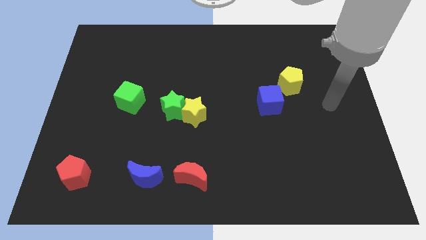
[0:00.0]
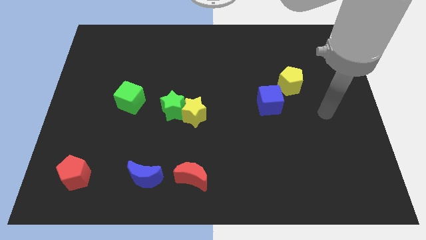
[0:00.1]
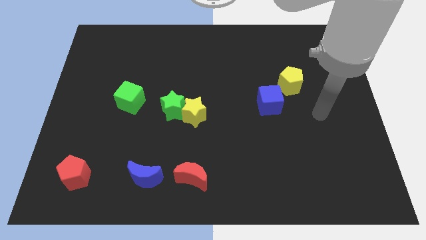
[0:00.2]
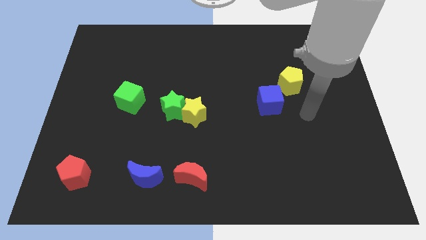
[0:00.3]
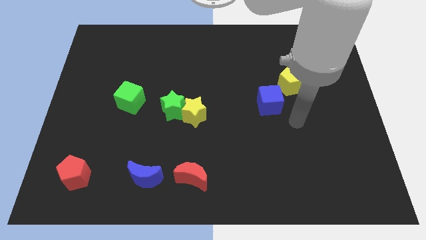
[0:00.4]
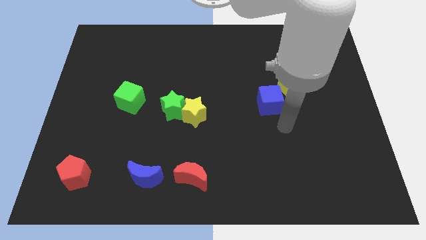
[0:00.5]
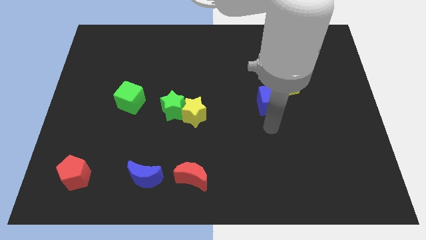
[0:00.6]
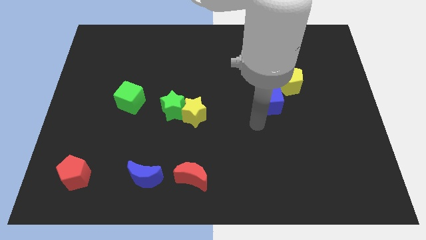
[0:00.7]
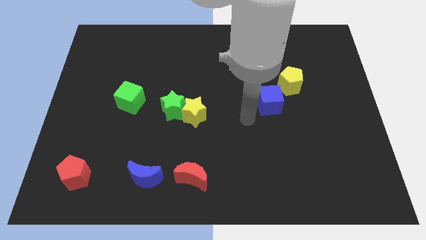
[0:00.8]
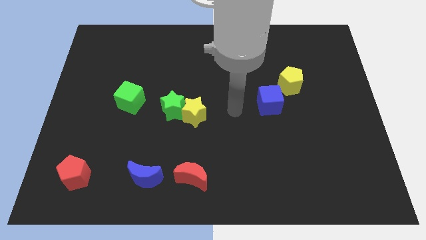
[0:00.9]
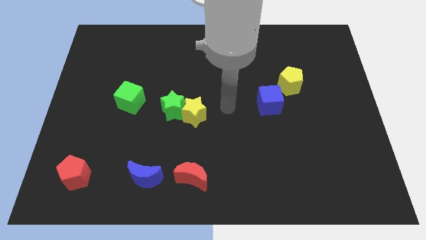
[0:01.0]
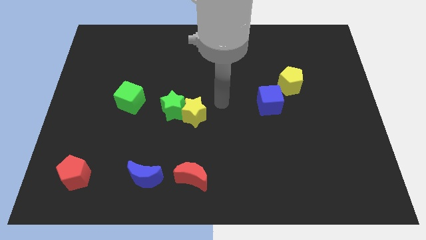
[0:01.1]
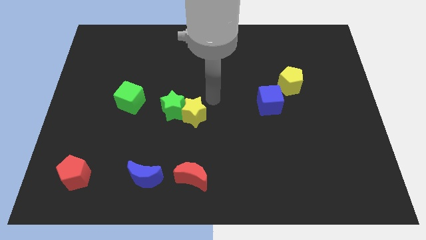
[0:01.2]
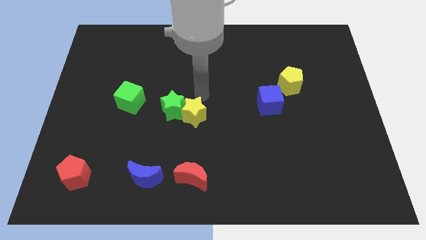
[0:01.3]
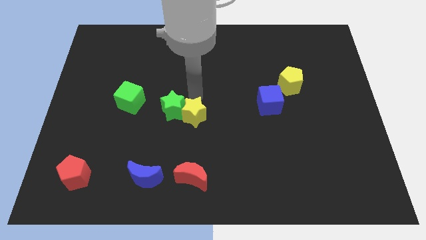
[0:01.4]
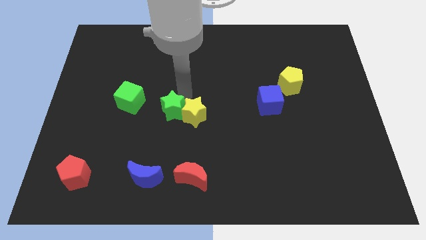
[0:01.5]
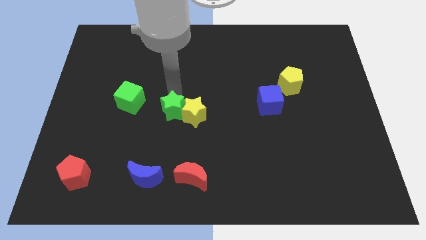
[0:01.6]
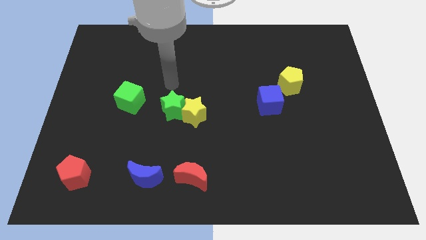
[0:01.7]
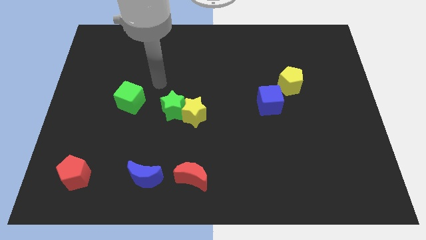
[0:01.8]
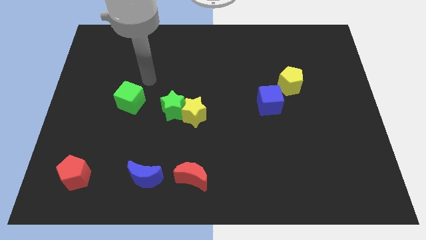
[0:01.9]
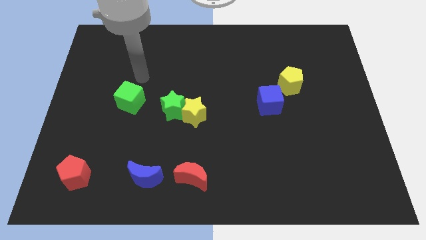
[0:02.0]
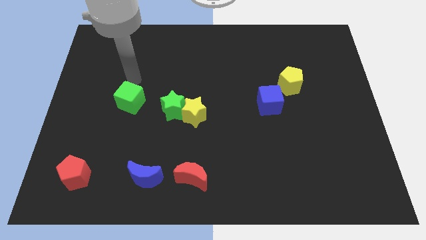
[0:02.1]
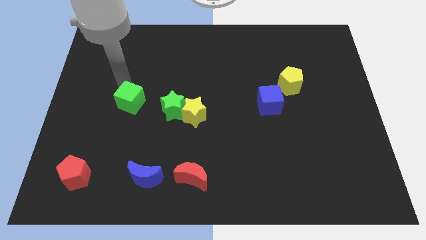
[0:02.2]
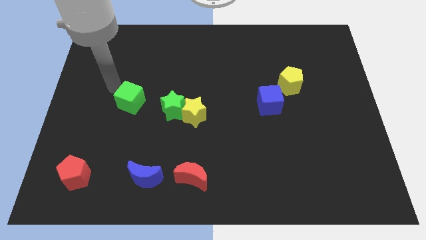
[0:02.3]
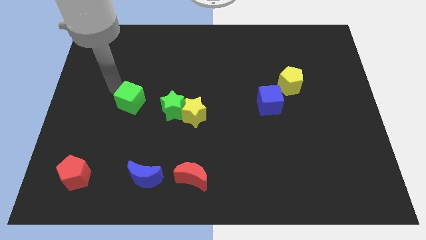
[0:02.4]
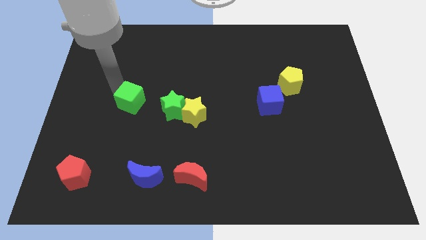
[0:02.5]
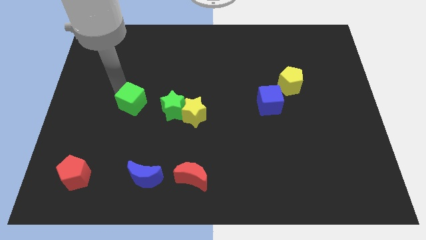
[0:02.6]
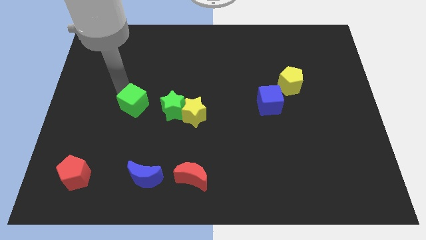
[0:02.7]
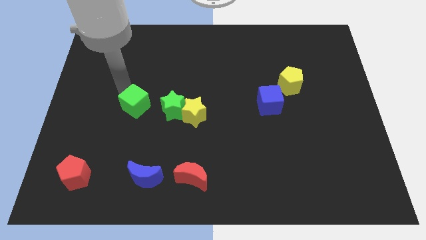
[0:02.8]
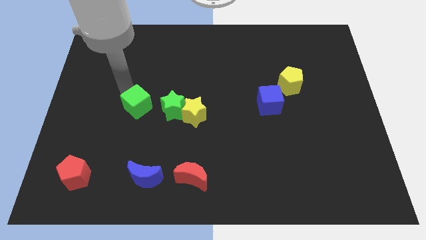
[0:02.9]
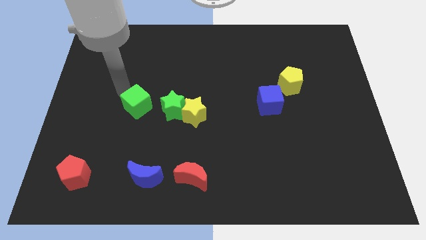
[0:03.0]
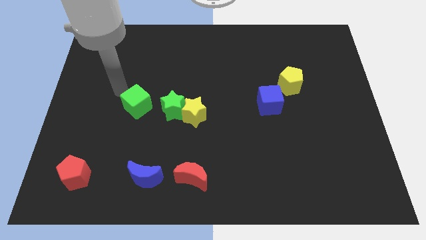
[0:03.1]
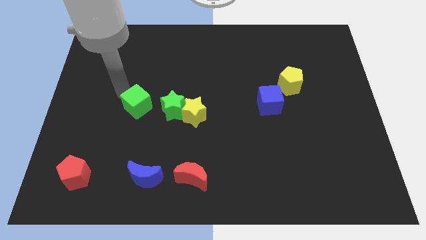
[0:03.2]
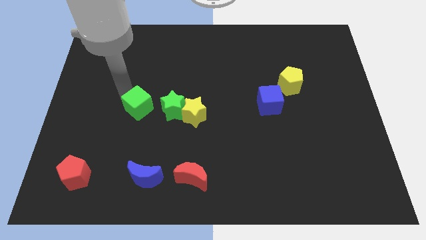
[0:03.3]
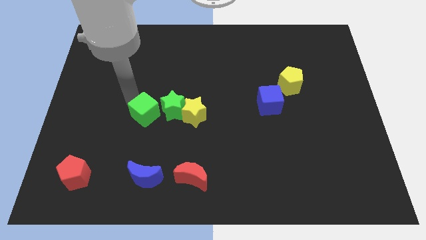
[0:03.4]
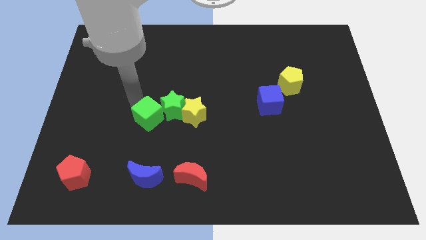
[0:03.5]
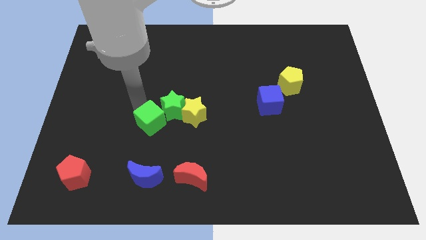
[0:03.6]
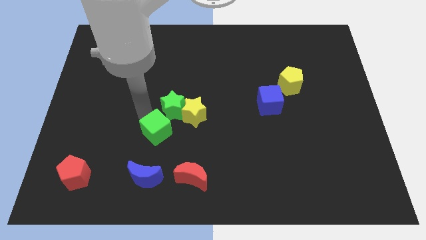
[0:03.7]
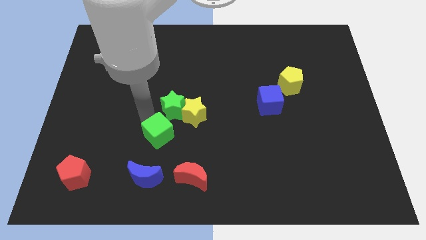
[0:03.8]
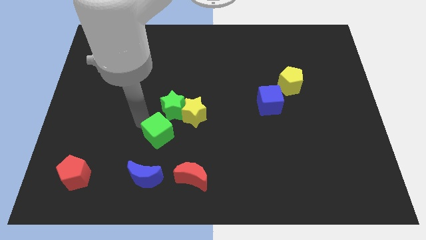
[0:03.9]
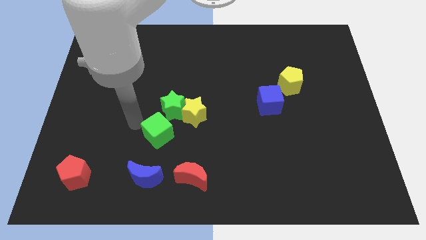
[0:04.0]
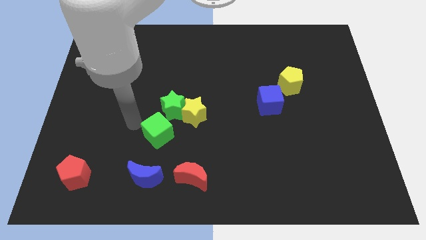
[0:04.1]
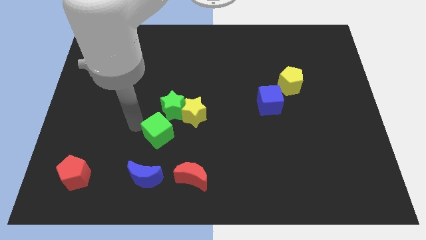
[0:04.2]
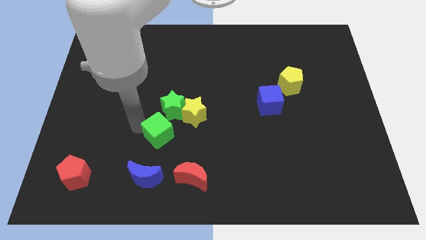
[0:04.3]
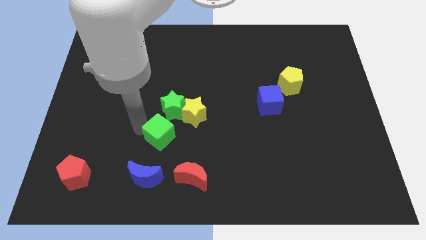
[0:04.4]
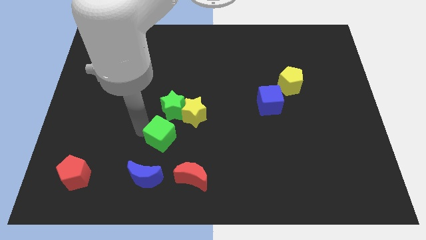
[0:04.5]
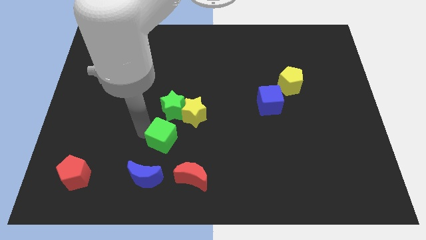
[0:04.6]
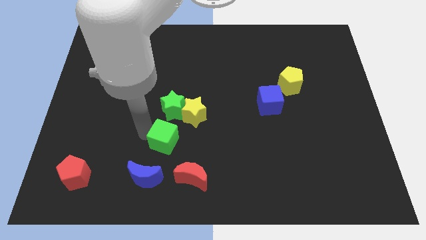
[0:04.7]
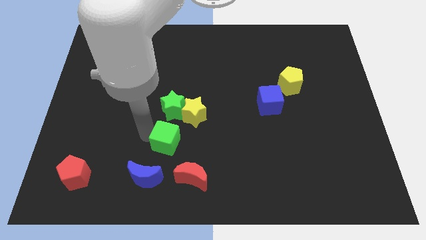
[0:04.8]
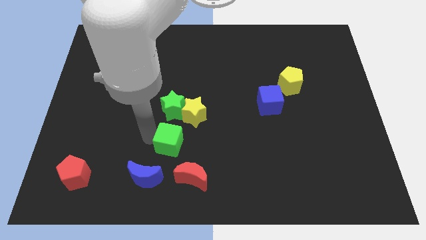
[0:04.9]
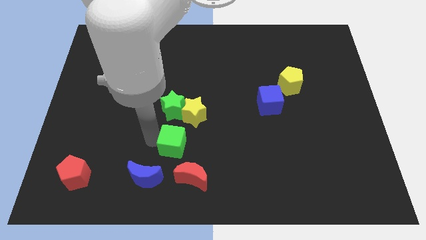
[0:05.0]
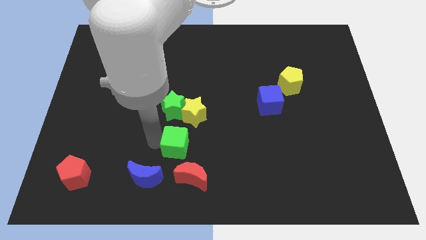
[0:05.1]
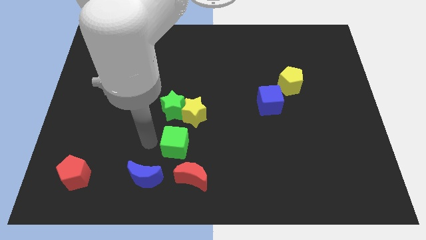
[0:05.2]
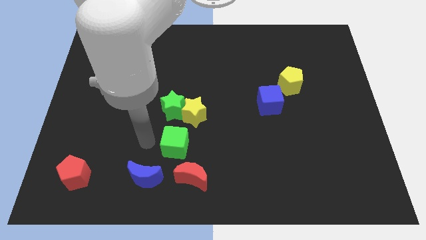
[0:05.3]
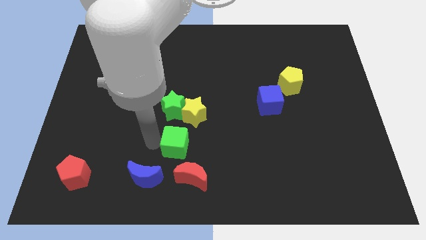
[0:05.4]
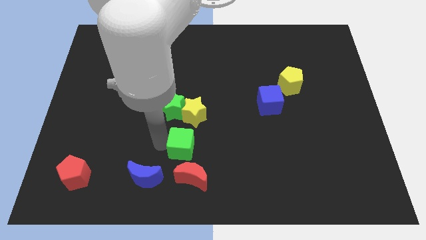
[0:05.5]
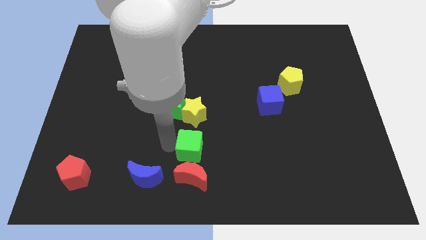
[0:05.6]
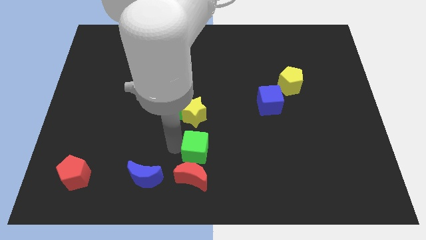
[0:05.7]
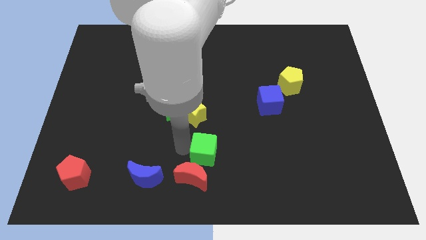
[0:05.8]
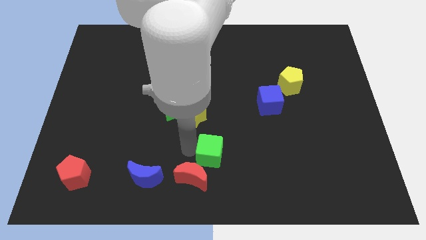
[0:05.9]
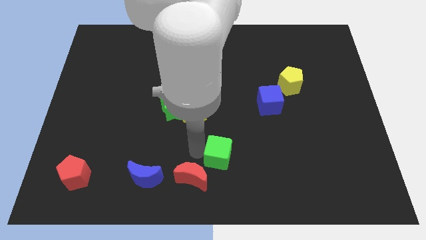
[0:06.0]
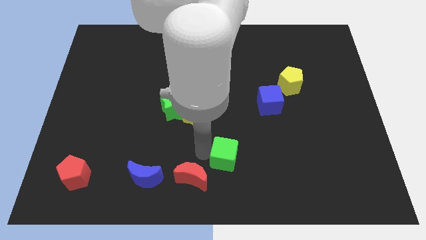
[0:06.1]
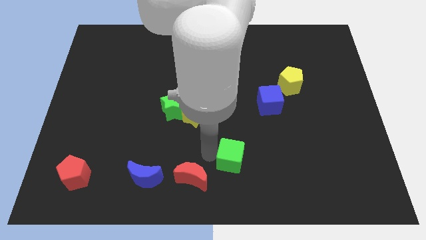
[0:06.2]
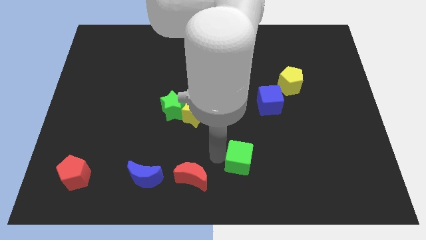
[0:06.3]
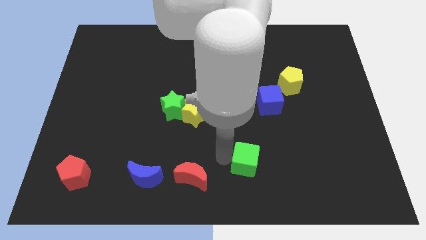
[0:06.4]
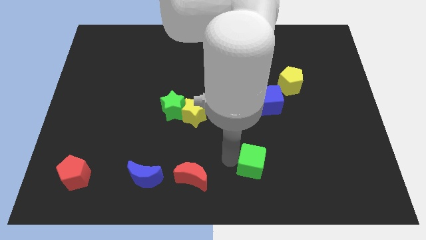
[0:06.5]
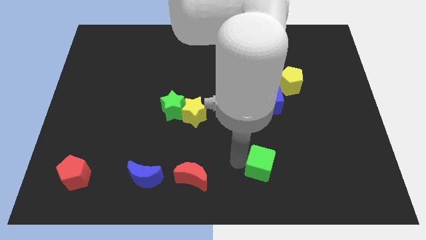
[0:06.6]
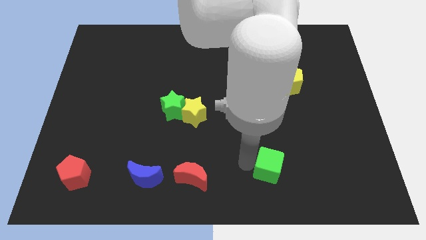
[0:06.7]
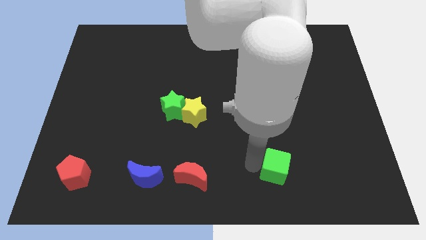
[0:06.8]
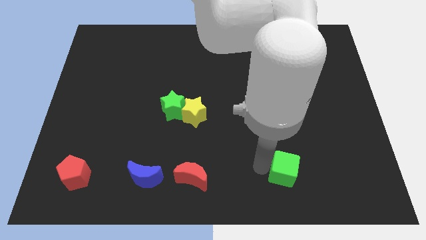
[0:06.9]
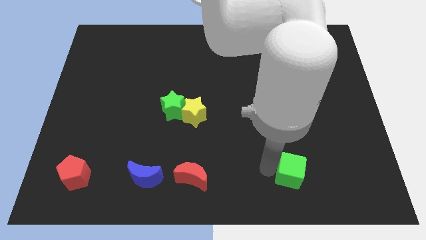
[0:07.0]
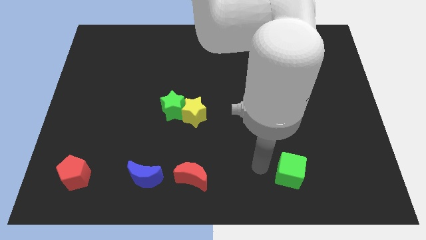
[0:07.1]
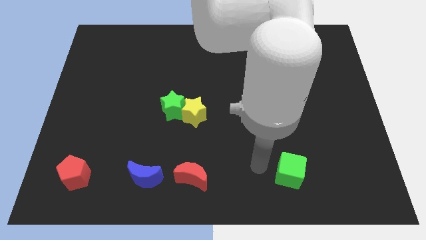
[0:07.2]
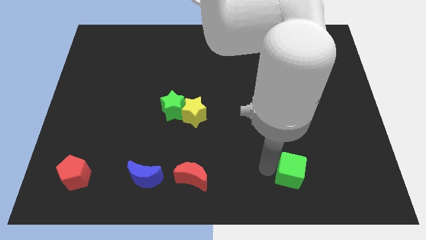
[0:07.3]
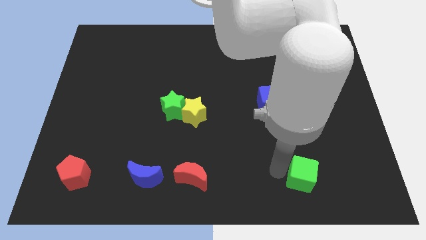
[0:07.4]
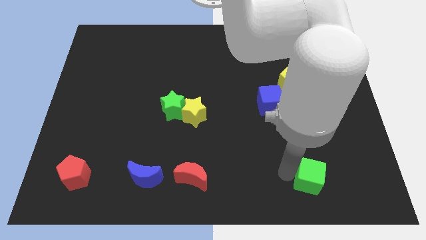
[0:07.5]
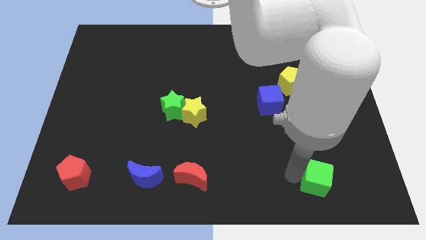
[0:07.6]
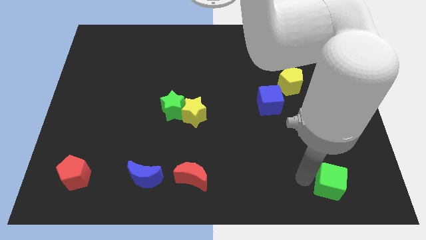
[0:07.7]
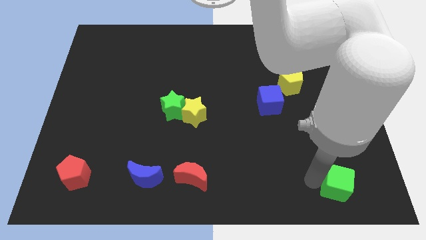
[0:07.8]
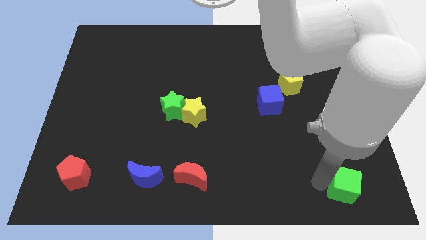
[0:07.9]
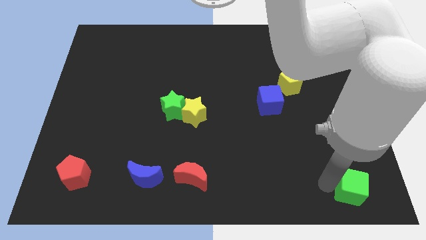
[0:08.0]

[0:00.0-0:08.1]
slide the green cube to the bottom right
